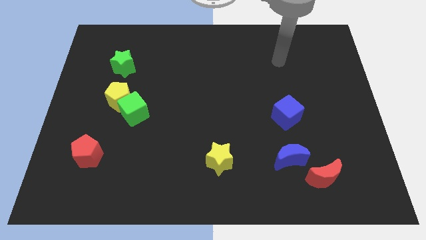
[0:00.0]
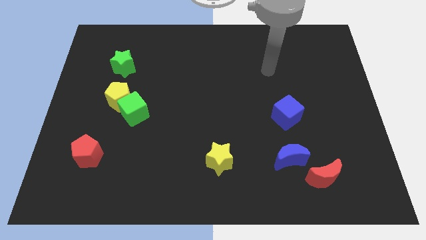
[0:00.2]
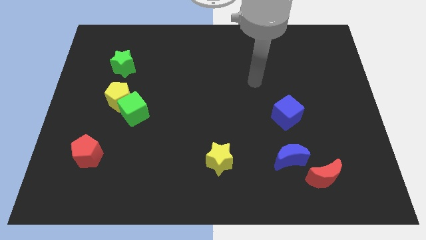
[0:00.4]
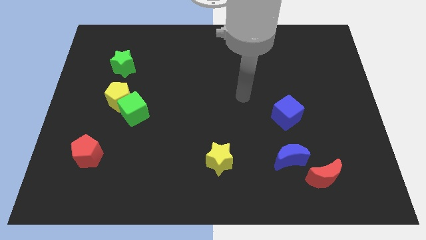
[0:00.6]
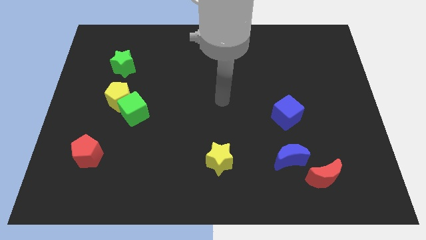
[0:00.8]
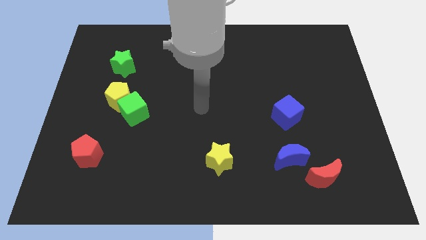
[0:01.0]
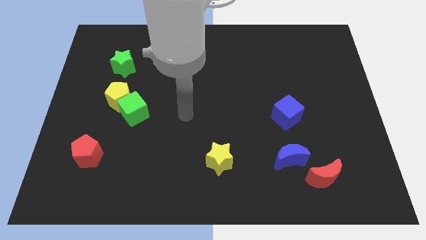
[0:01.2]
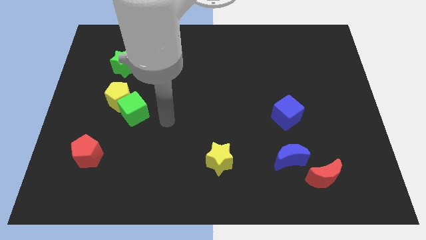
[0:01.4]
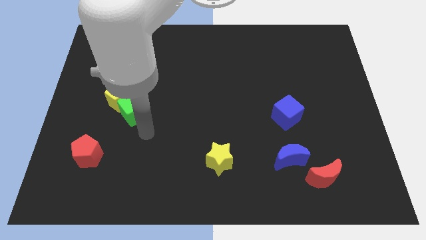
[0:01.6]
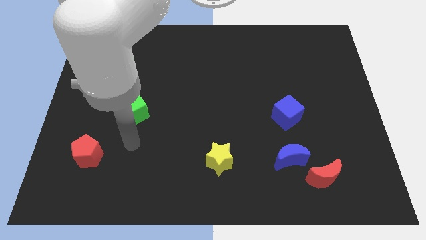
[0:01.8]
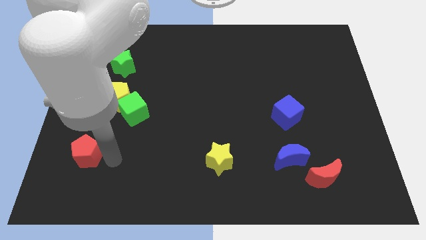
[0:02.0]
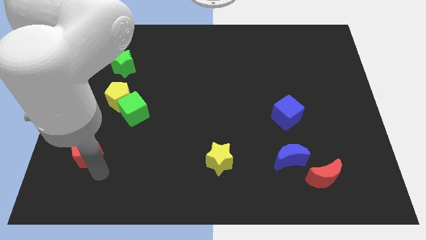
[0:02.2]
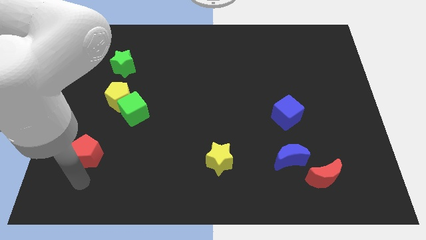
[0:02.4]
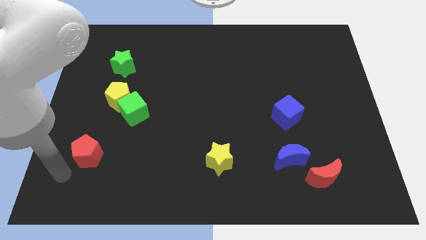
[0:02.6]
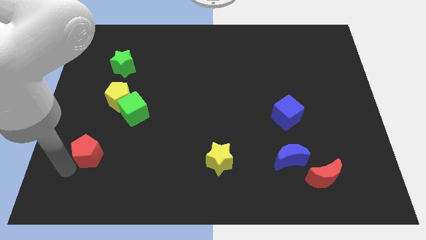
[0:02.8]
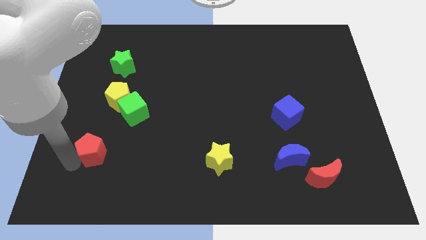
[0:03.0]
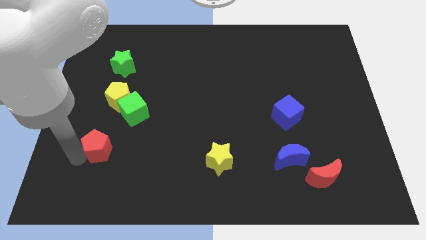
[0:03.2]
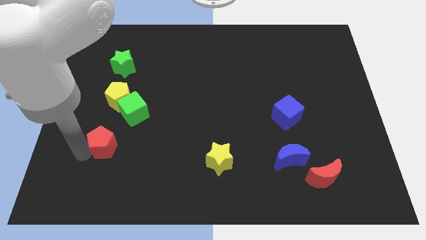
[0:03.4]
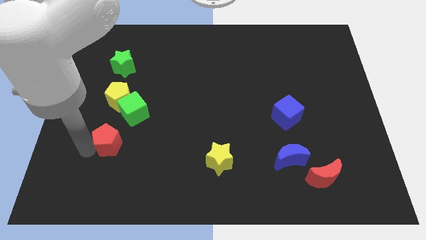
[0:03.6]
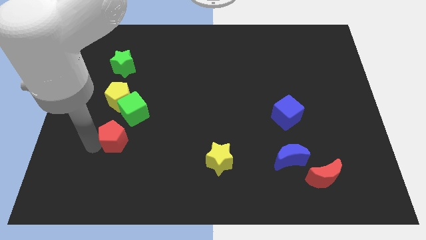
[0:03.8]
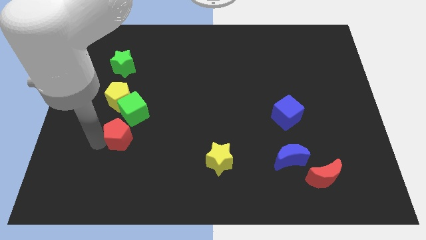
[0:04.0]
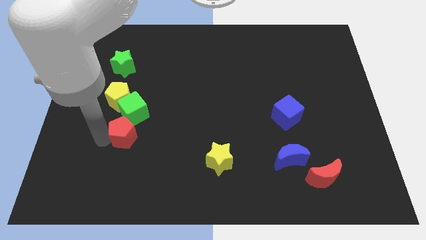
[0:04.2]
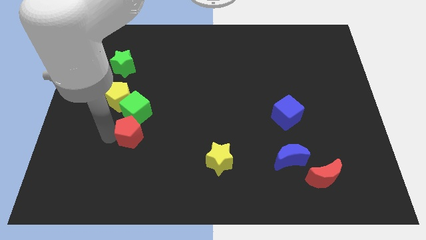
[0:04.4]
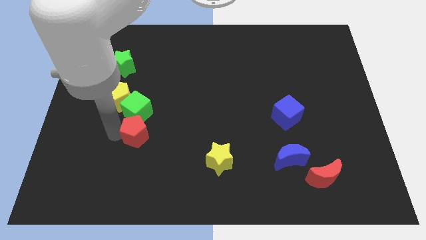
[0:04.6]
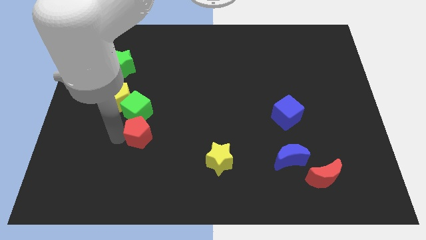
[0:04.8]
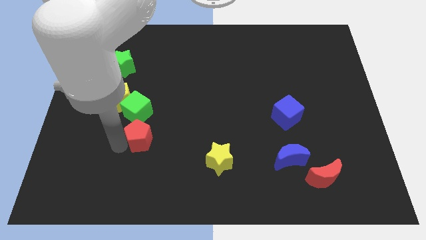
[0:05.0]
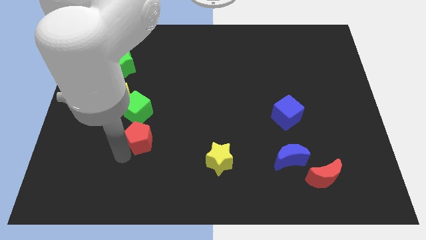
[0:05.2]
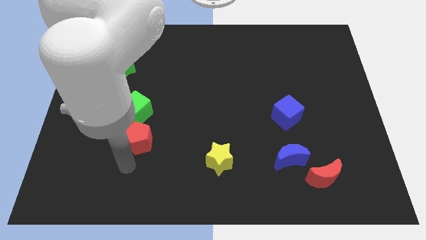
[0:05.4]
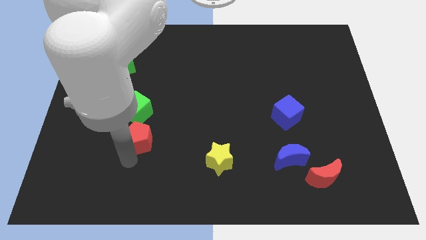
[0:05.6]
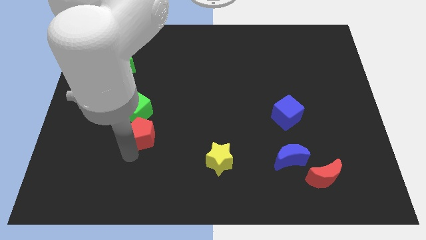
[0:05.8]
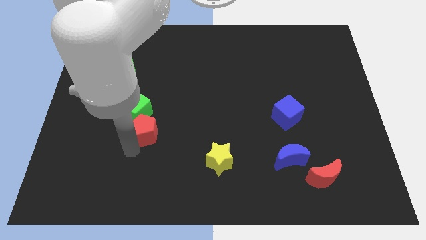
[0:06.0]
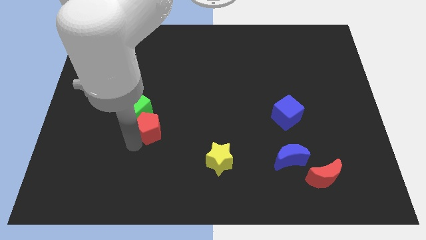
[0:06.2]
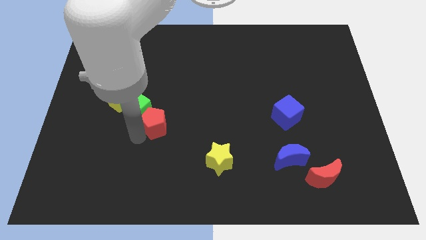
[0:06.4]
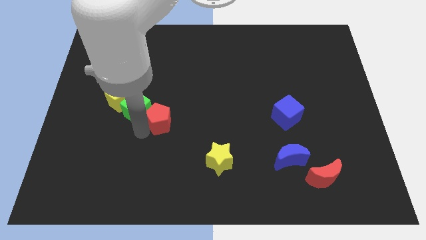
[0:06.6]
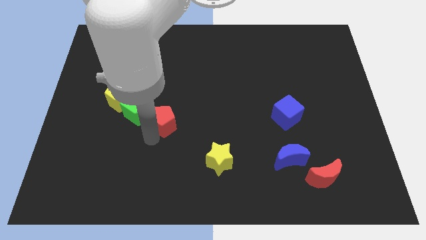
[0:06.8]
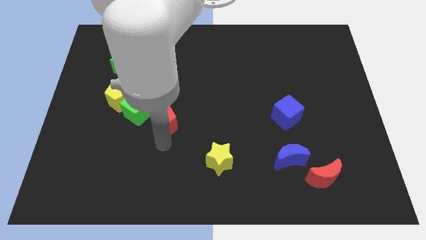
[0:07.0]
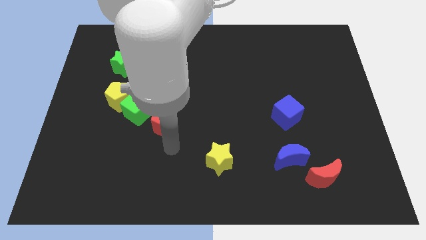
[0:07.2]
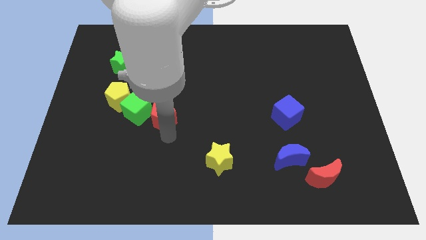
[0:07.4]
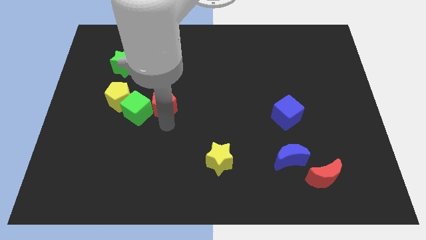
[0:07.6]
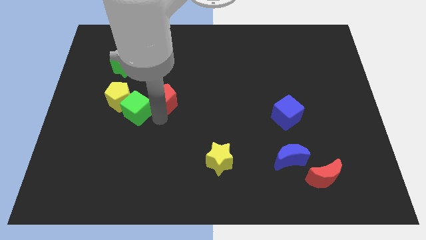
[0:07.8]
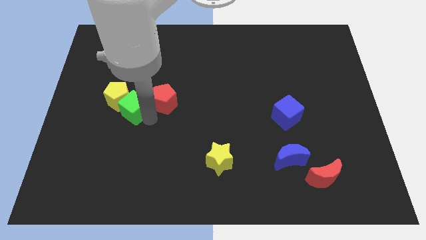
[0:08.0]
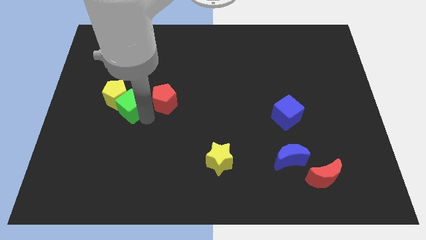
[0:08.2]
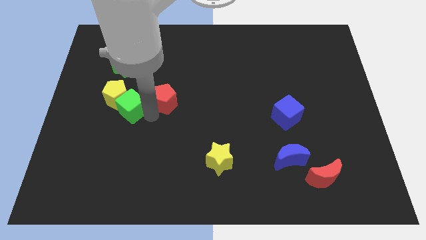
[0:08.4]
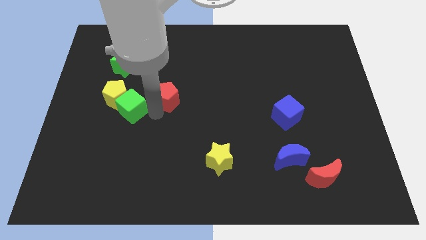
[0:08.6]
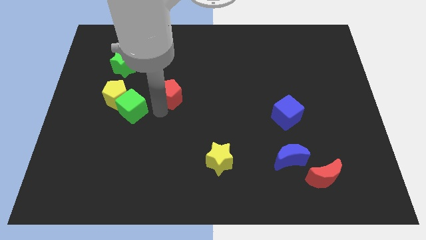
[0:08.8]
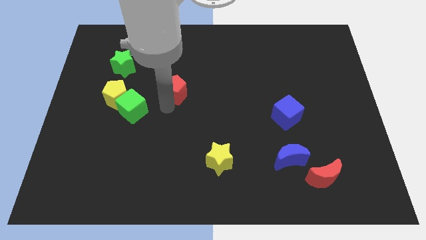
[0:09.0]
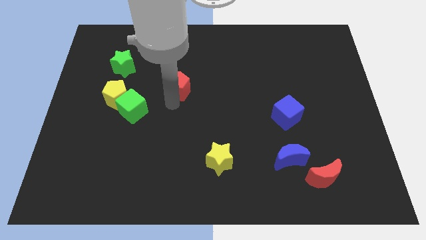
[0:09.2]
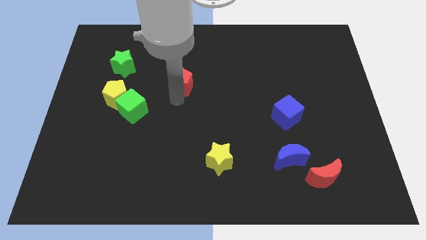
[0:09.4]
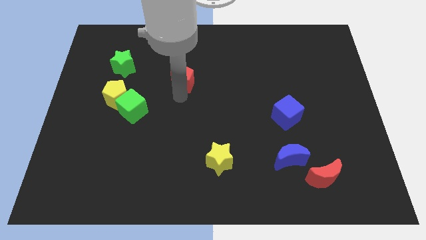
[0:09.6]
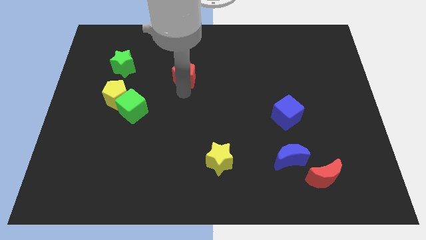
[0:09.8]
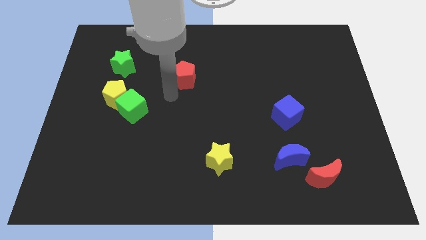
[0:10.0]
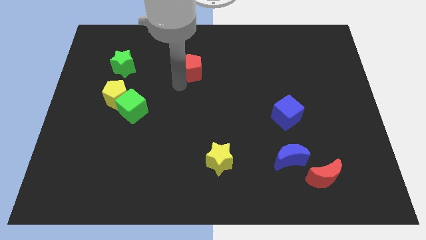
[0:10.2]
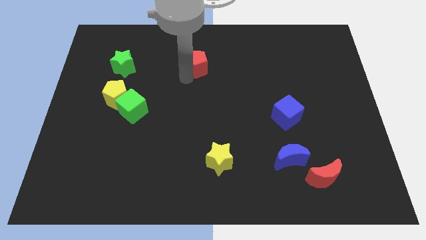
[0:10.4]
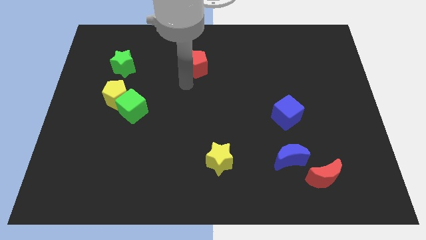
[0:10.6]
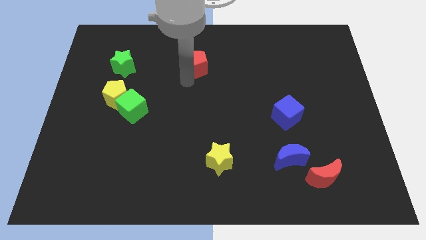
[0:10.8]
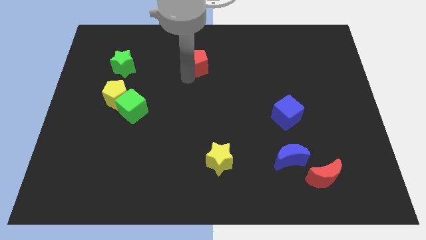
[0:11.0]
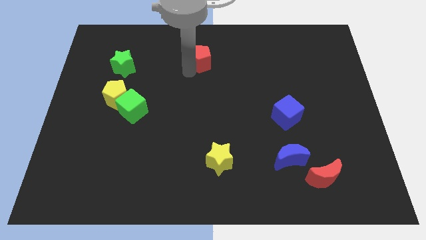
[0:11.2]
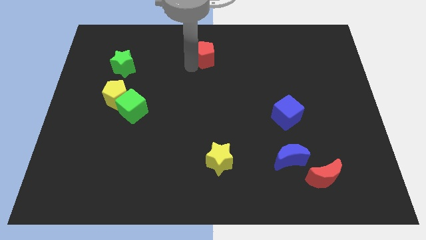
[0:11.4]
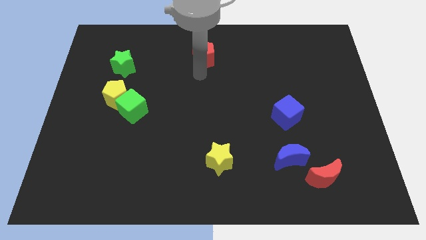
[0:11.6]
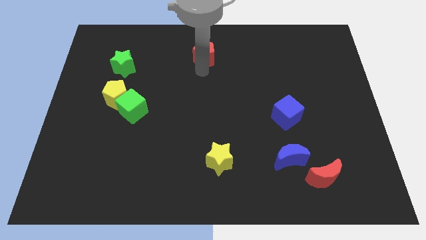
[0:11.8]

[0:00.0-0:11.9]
push the red pentagon to the towards your base
